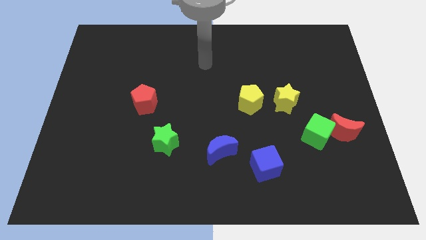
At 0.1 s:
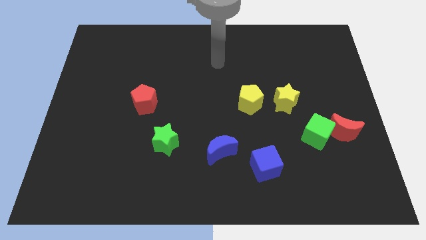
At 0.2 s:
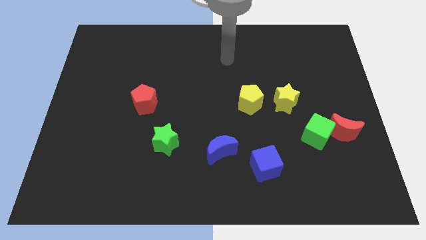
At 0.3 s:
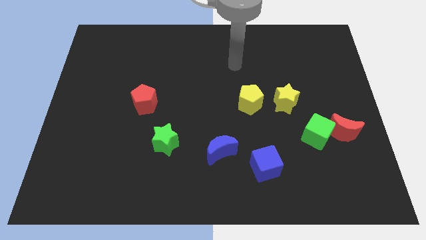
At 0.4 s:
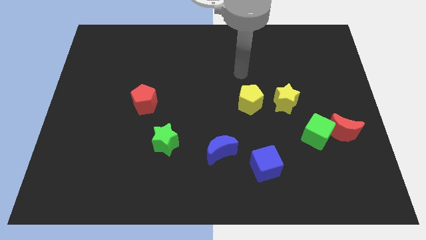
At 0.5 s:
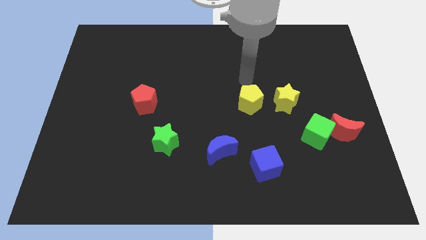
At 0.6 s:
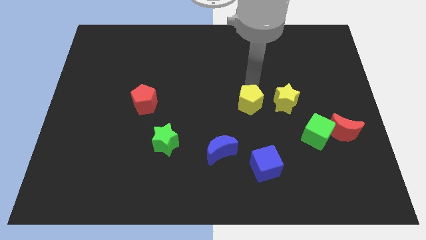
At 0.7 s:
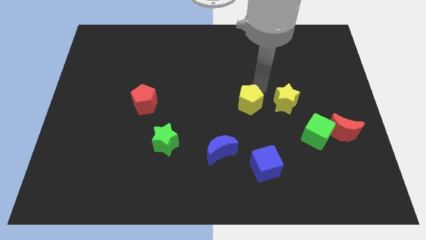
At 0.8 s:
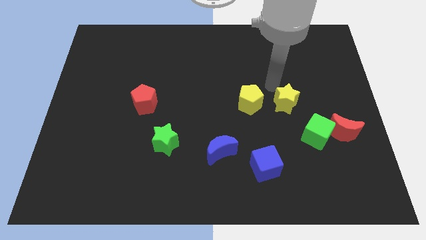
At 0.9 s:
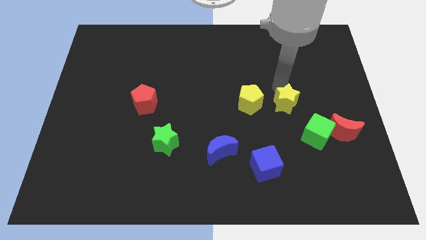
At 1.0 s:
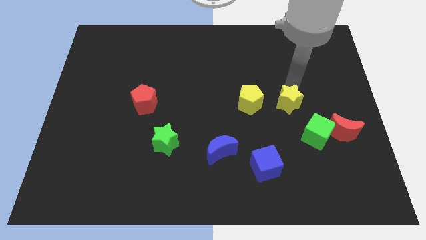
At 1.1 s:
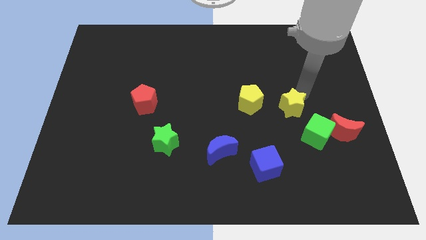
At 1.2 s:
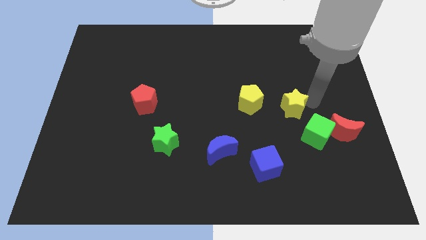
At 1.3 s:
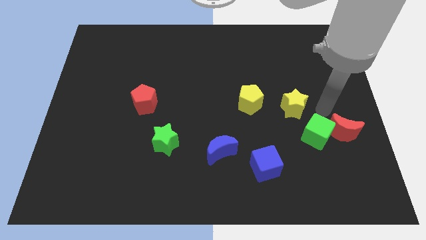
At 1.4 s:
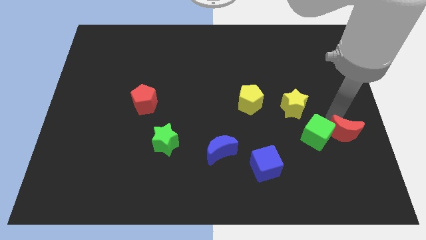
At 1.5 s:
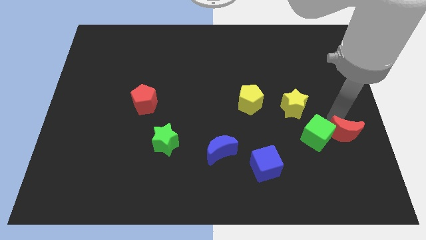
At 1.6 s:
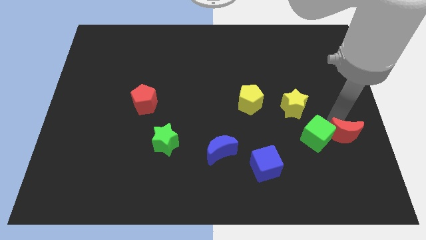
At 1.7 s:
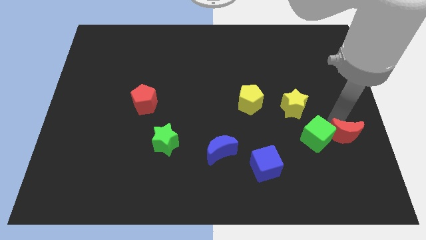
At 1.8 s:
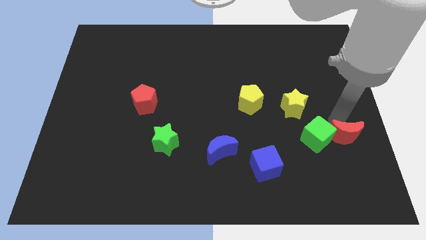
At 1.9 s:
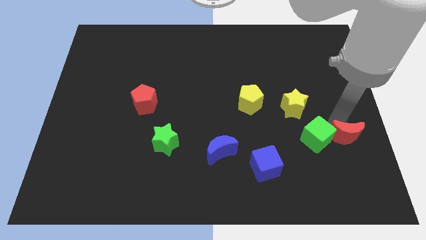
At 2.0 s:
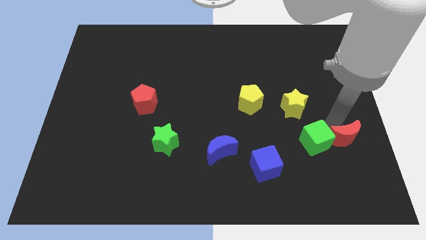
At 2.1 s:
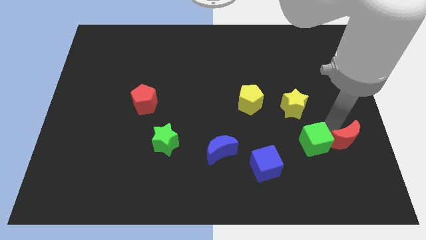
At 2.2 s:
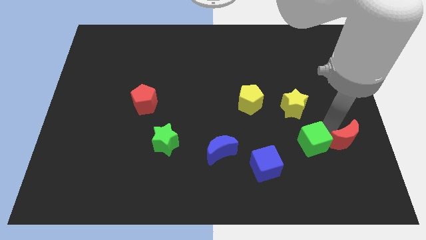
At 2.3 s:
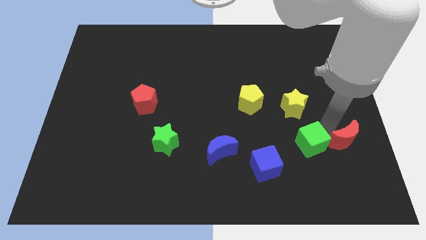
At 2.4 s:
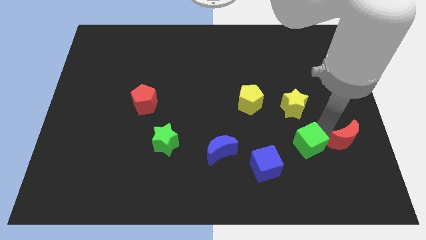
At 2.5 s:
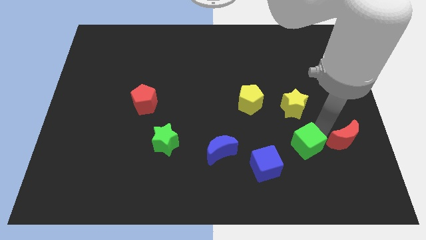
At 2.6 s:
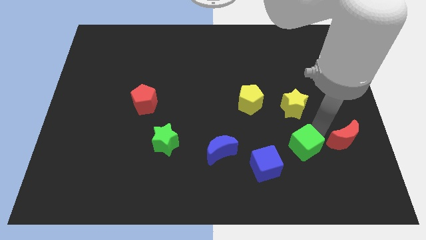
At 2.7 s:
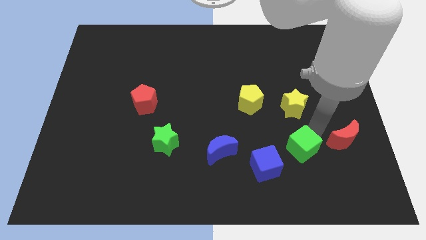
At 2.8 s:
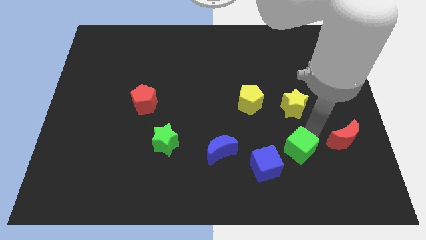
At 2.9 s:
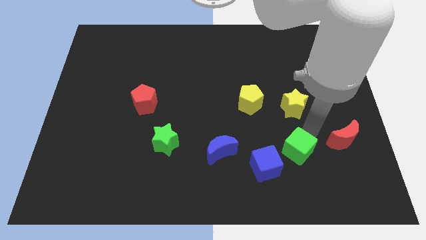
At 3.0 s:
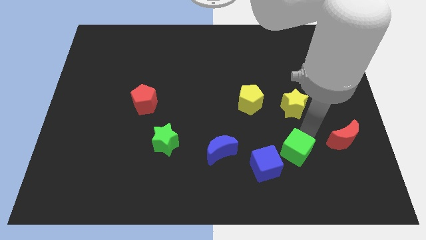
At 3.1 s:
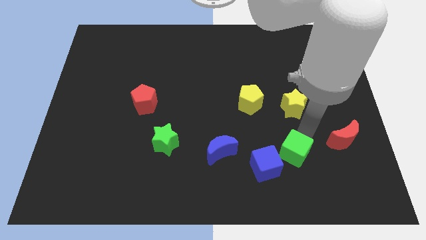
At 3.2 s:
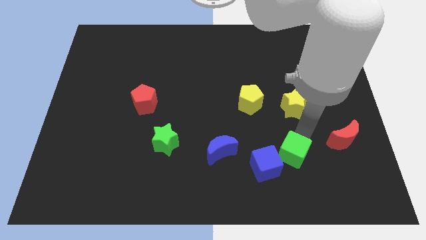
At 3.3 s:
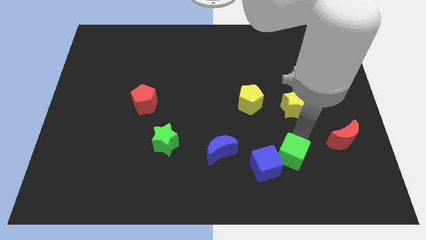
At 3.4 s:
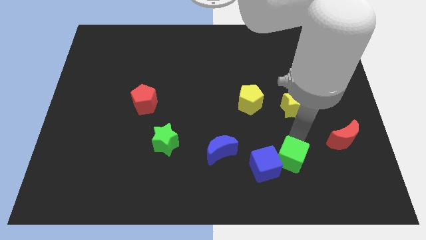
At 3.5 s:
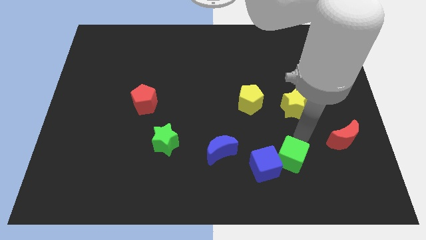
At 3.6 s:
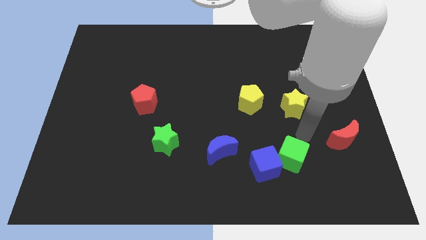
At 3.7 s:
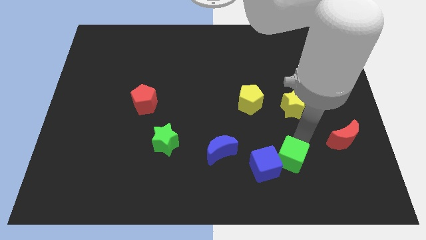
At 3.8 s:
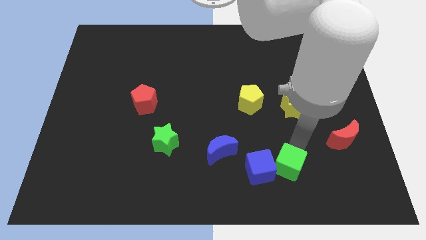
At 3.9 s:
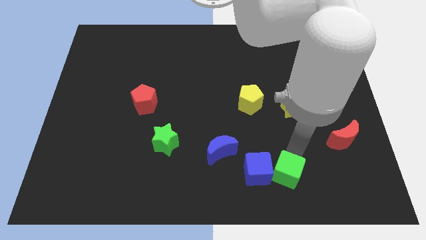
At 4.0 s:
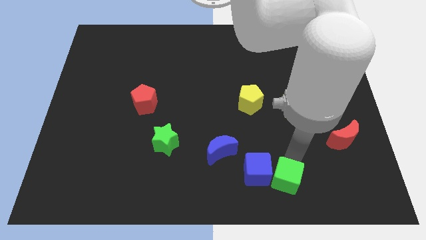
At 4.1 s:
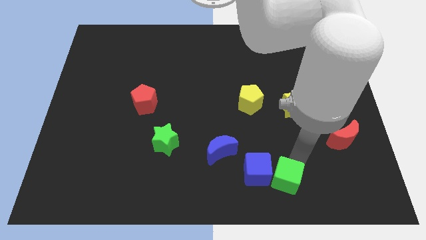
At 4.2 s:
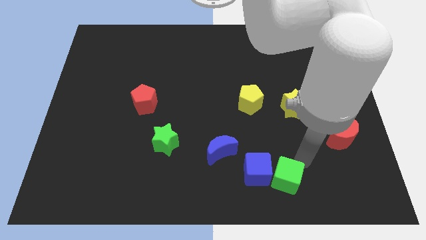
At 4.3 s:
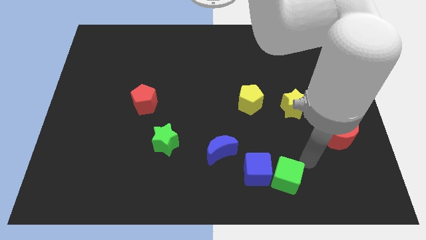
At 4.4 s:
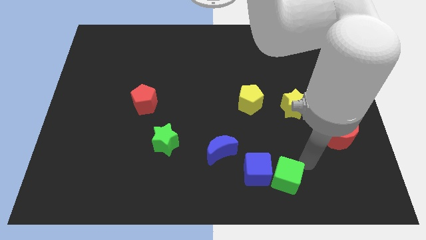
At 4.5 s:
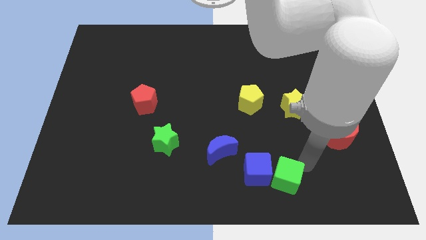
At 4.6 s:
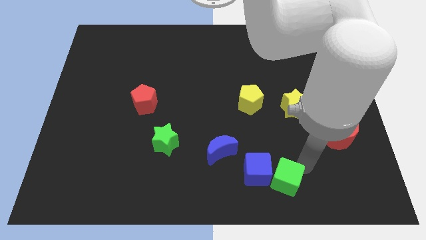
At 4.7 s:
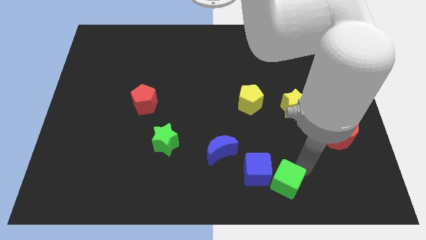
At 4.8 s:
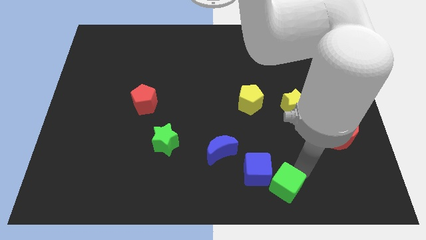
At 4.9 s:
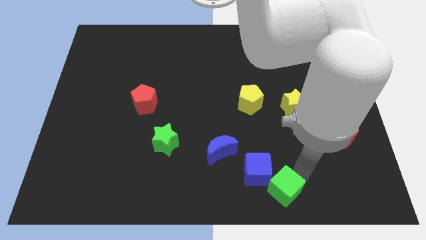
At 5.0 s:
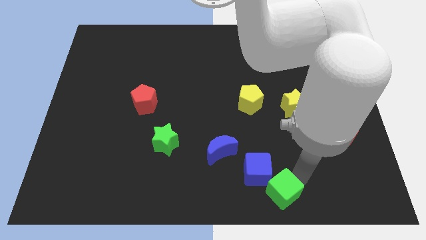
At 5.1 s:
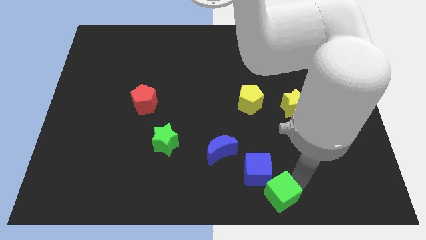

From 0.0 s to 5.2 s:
push the green cube to the bottom

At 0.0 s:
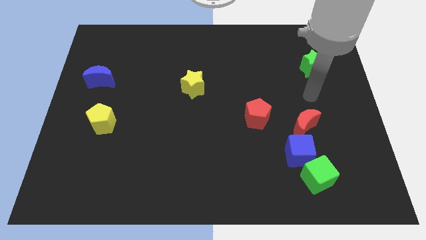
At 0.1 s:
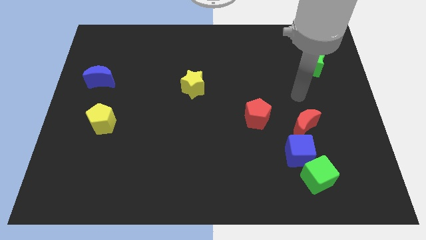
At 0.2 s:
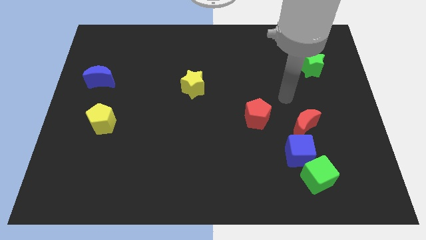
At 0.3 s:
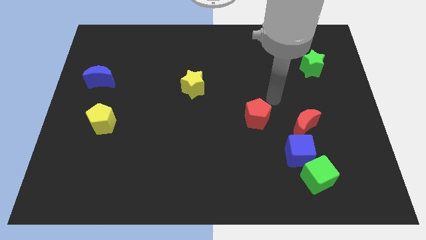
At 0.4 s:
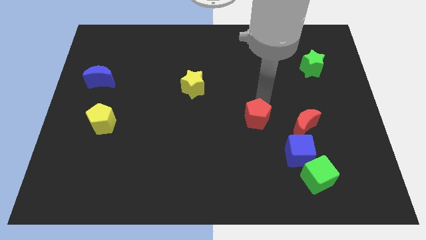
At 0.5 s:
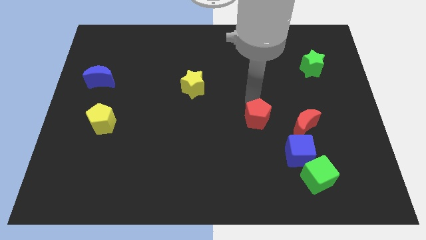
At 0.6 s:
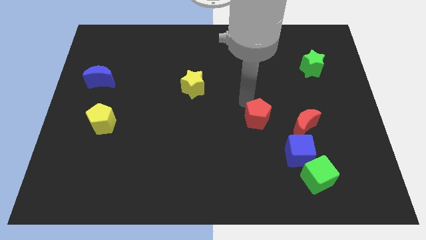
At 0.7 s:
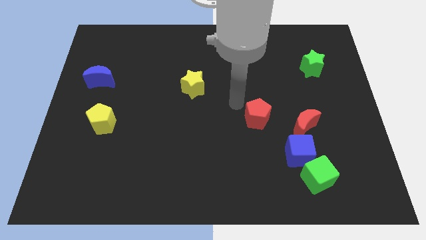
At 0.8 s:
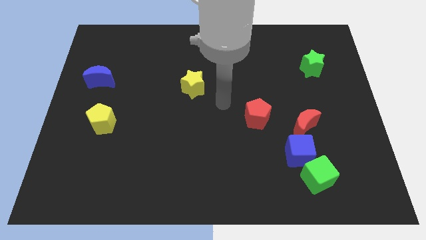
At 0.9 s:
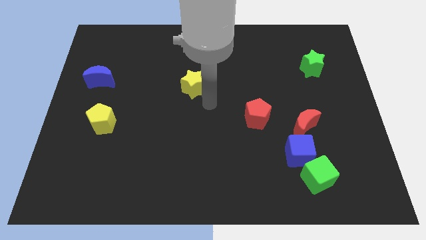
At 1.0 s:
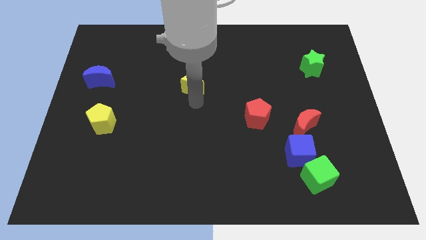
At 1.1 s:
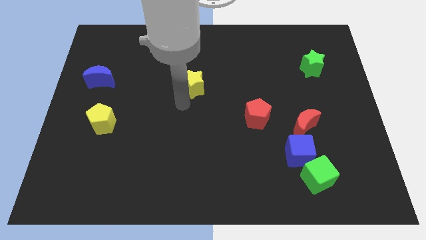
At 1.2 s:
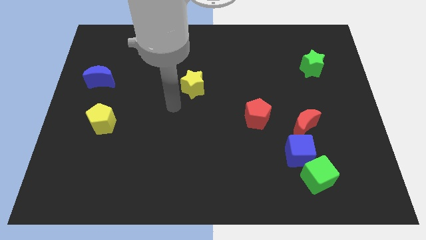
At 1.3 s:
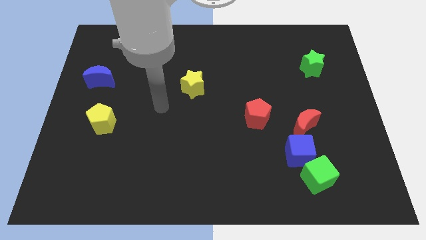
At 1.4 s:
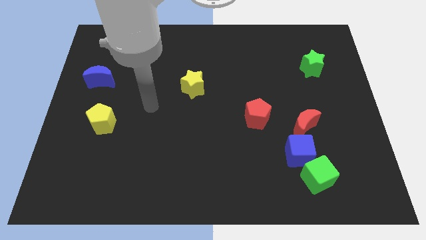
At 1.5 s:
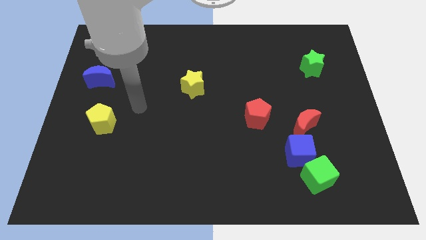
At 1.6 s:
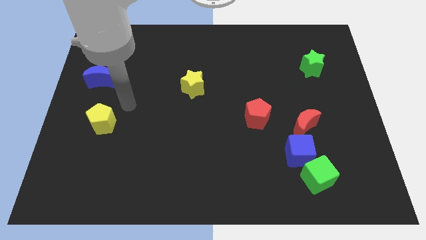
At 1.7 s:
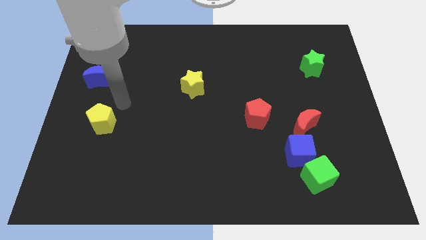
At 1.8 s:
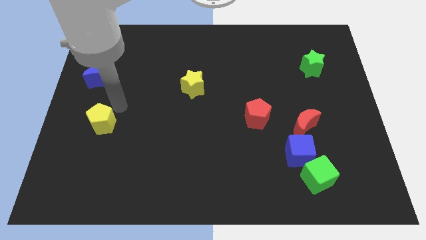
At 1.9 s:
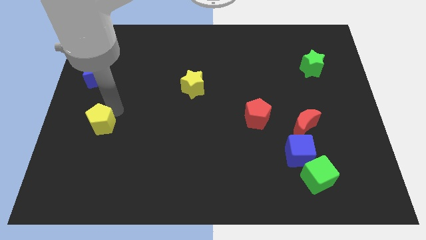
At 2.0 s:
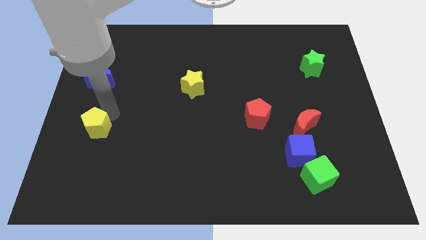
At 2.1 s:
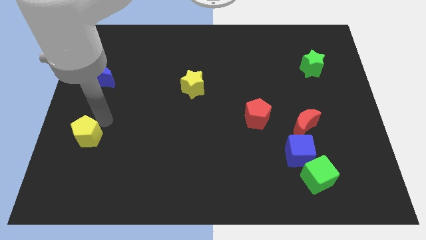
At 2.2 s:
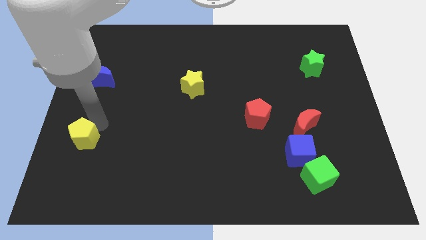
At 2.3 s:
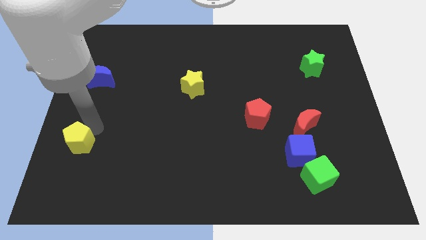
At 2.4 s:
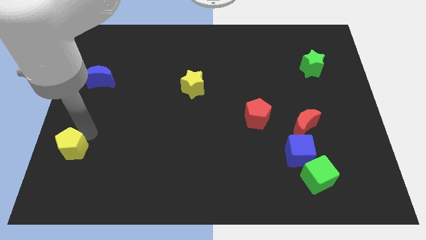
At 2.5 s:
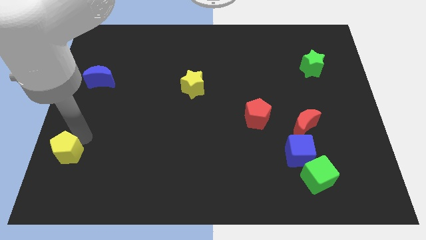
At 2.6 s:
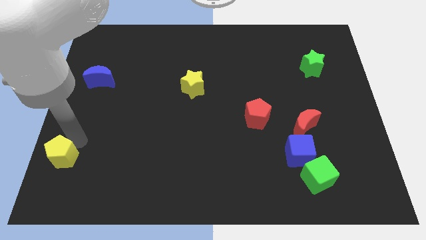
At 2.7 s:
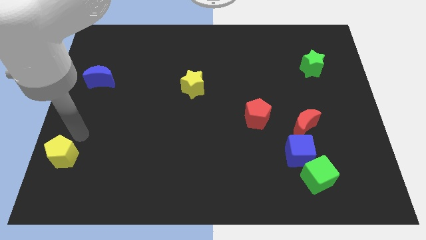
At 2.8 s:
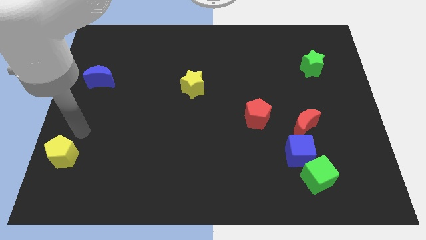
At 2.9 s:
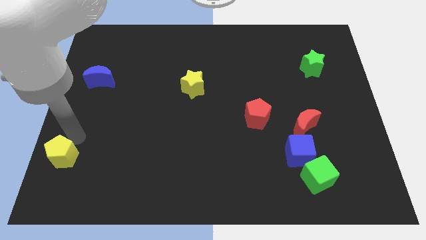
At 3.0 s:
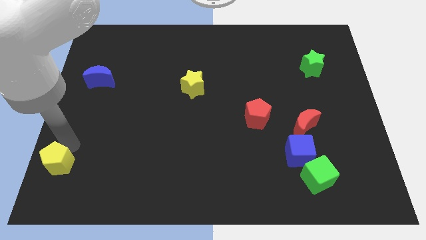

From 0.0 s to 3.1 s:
slide the yellow pentagon to the bottom left of the board
